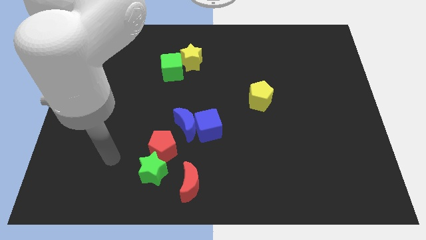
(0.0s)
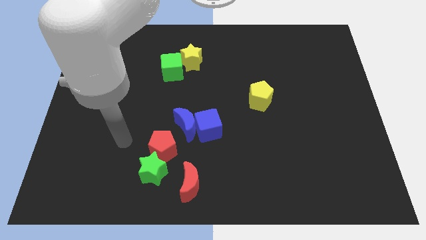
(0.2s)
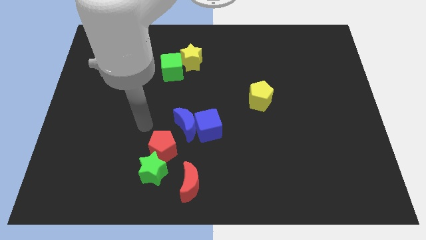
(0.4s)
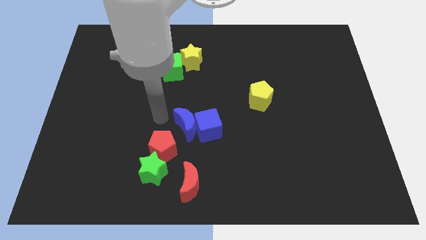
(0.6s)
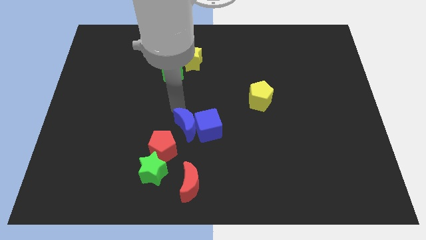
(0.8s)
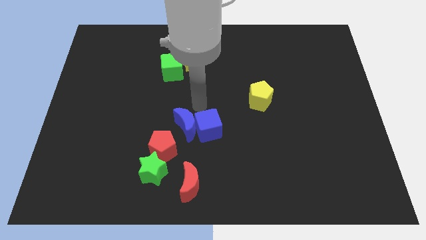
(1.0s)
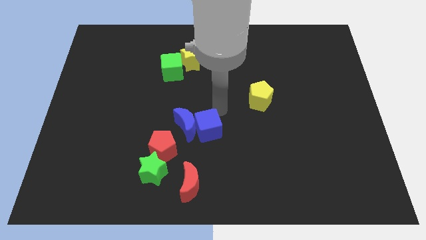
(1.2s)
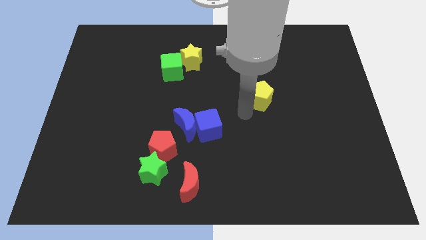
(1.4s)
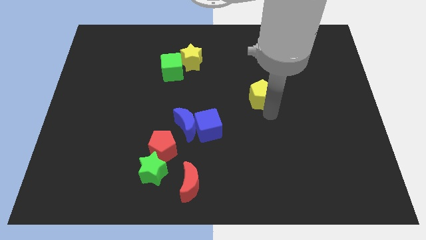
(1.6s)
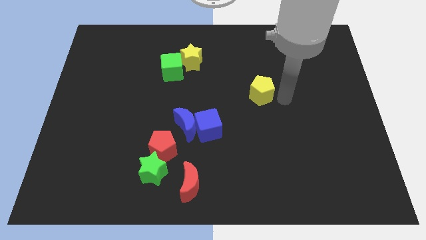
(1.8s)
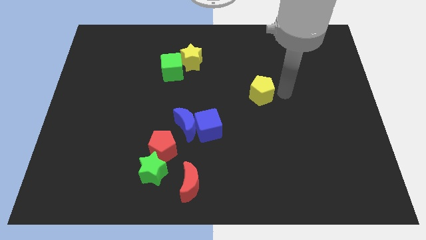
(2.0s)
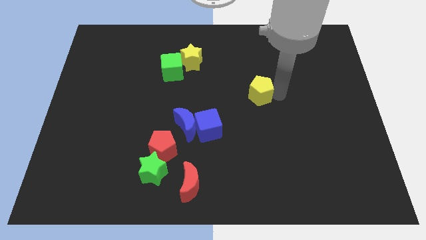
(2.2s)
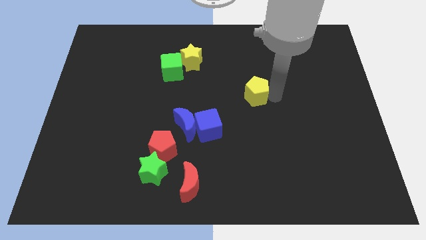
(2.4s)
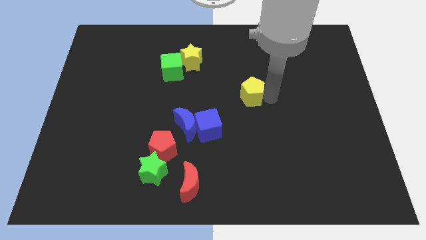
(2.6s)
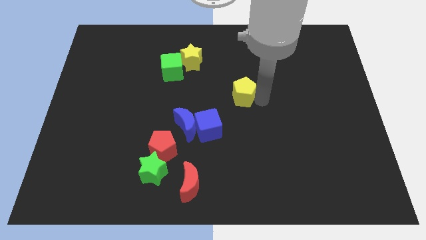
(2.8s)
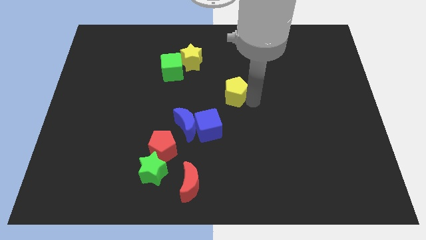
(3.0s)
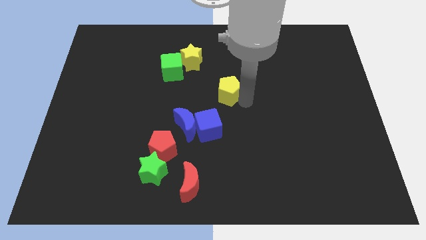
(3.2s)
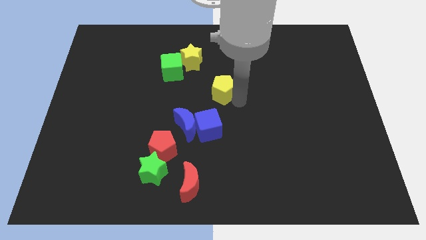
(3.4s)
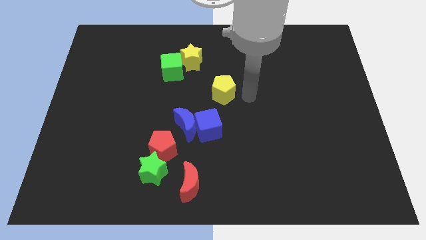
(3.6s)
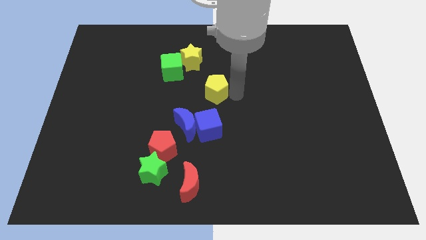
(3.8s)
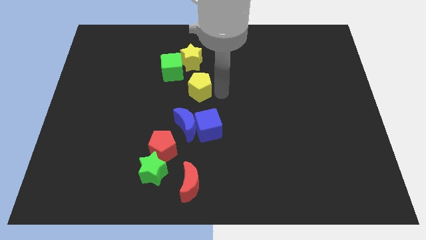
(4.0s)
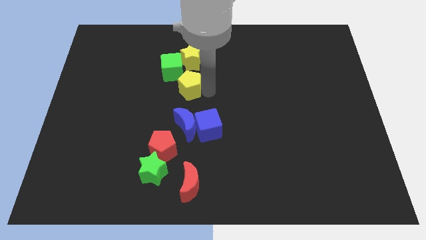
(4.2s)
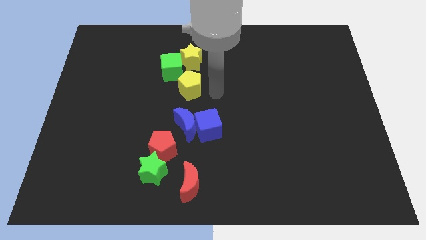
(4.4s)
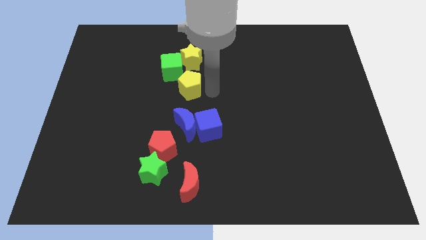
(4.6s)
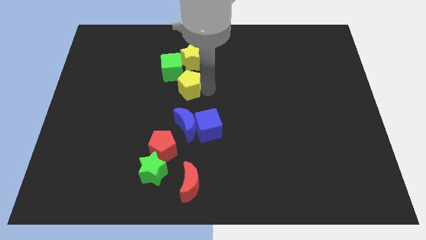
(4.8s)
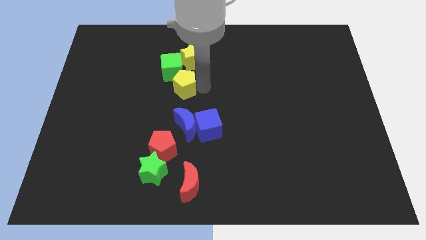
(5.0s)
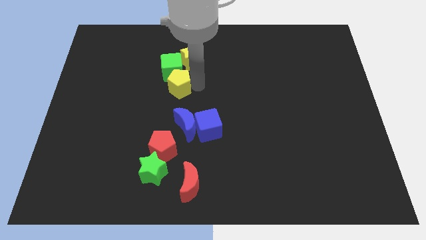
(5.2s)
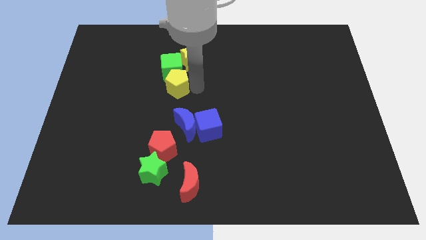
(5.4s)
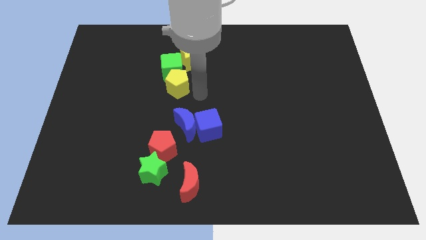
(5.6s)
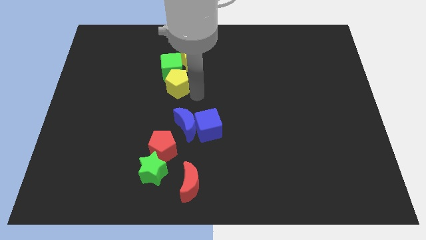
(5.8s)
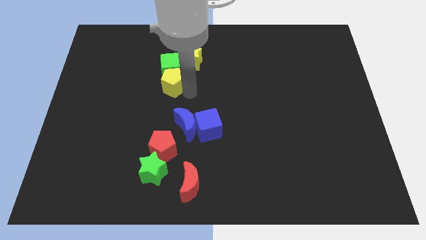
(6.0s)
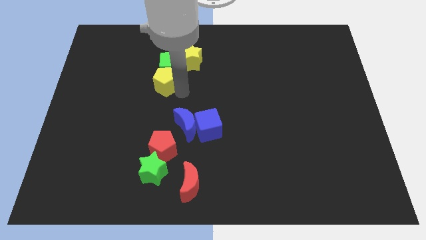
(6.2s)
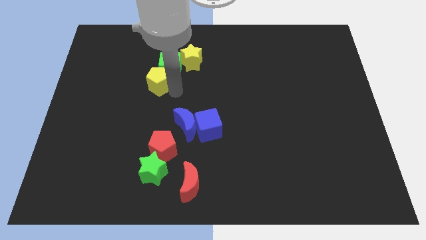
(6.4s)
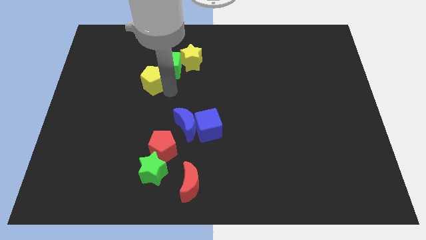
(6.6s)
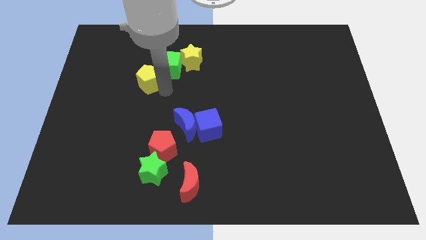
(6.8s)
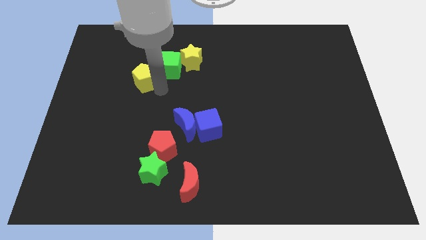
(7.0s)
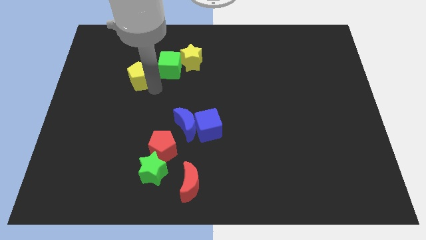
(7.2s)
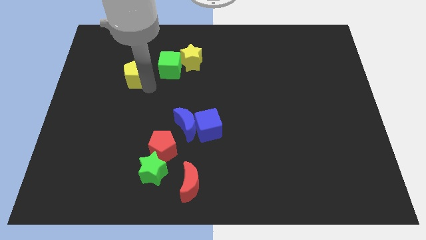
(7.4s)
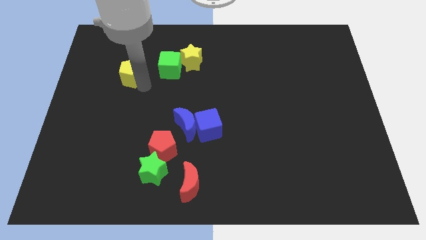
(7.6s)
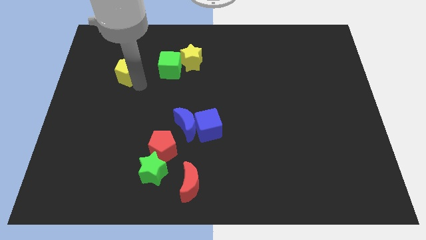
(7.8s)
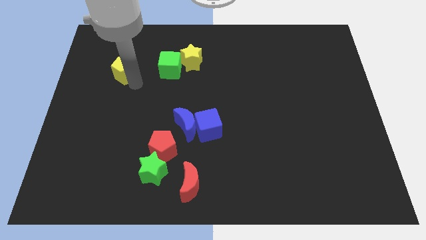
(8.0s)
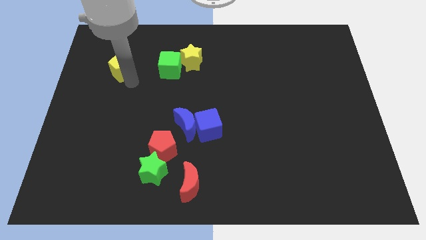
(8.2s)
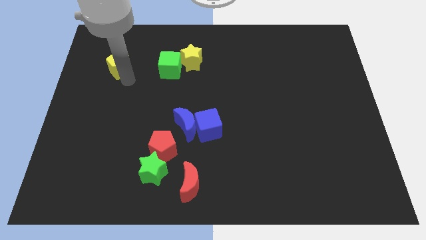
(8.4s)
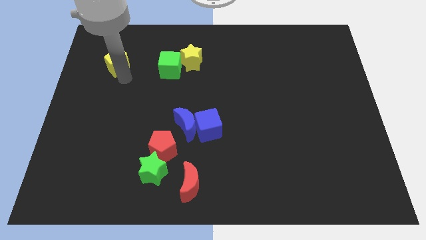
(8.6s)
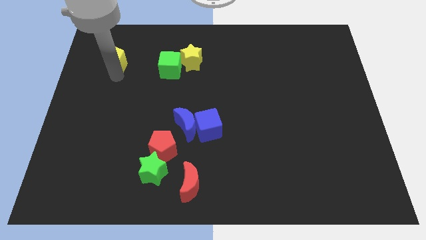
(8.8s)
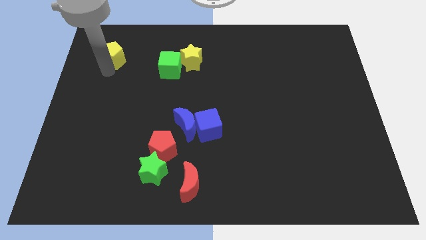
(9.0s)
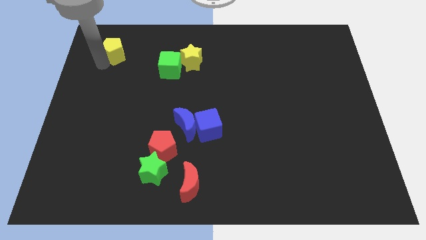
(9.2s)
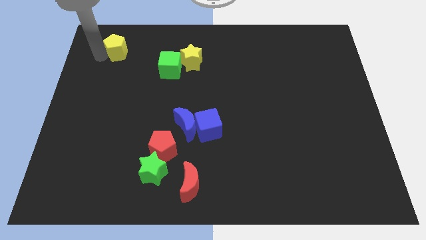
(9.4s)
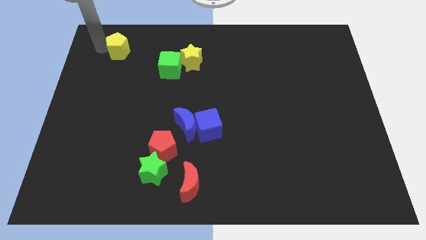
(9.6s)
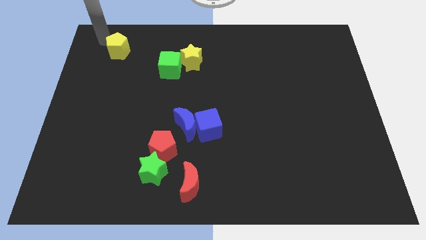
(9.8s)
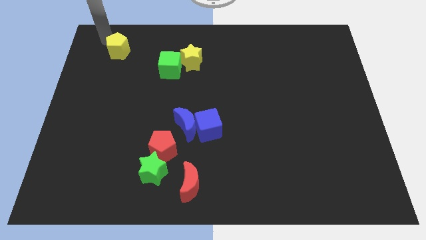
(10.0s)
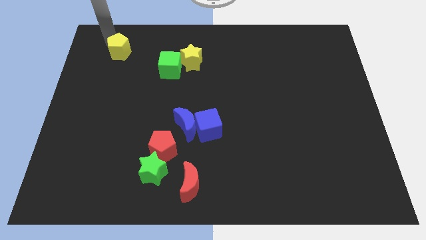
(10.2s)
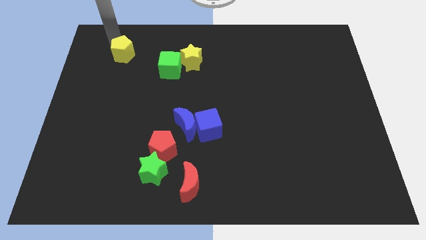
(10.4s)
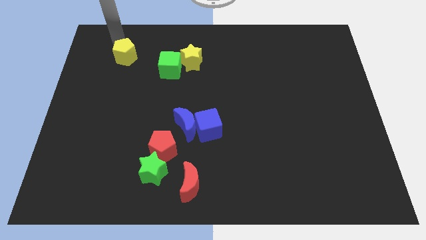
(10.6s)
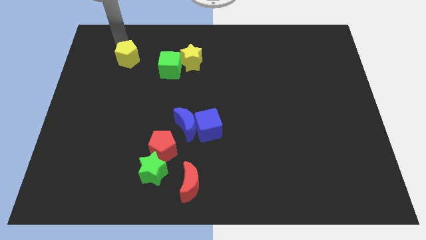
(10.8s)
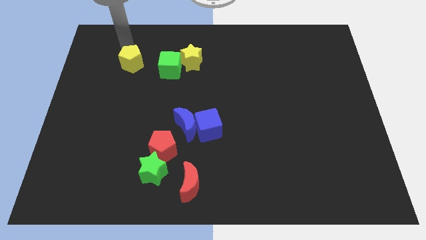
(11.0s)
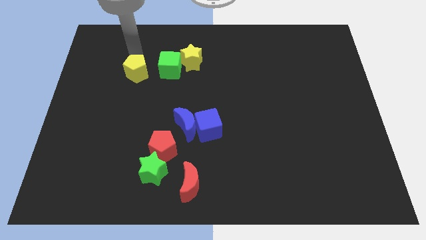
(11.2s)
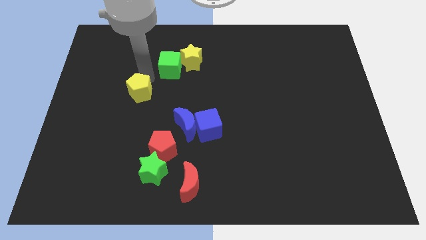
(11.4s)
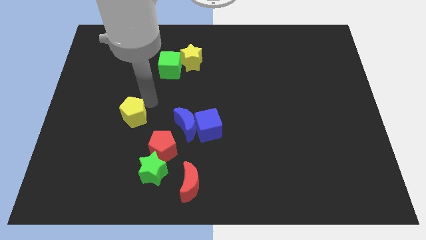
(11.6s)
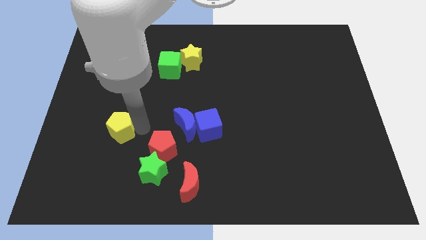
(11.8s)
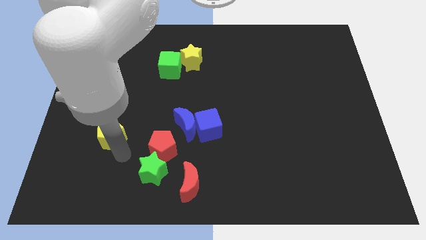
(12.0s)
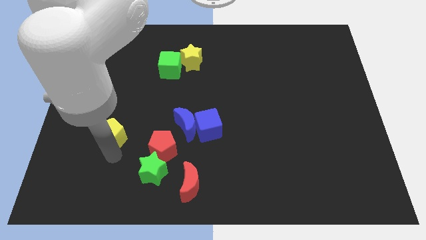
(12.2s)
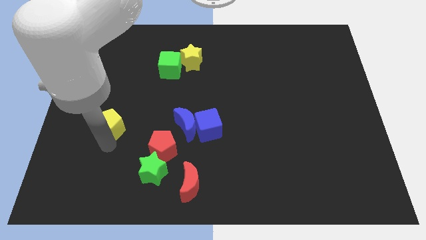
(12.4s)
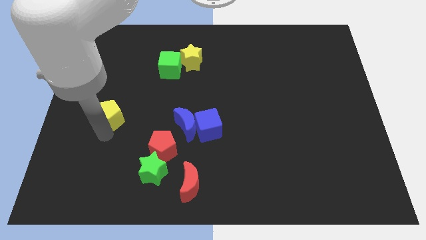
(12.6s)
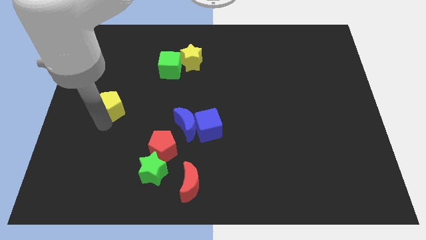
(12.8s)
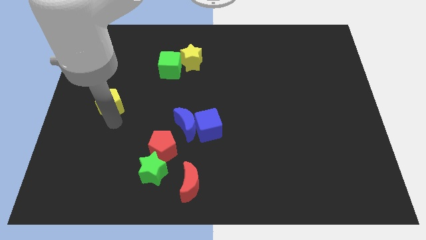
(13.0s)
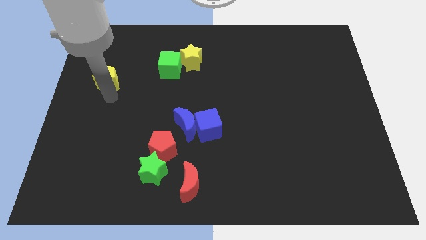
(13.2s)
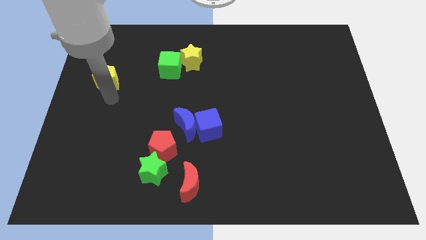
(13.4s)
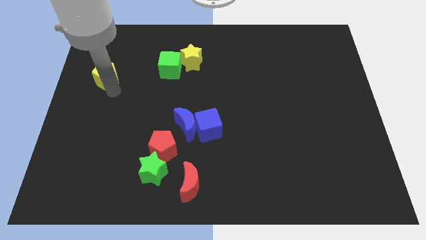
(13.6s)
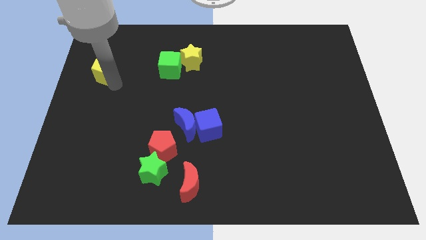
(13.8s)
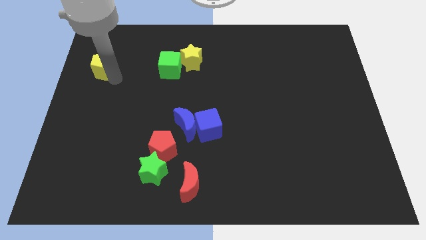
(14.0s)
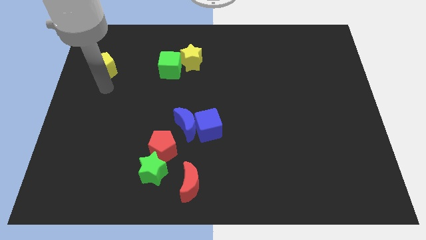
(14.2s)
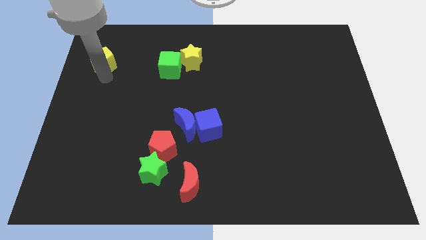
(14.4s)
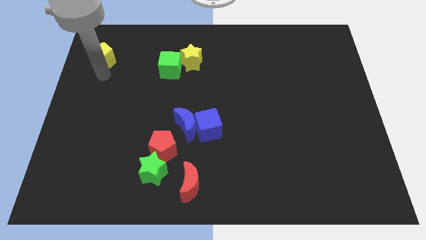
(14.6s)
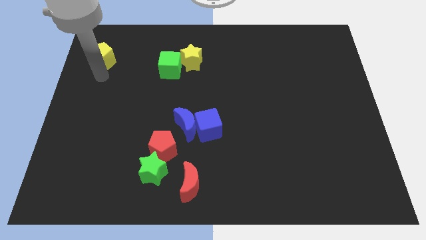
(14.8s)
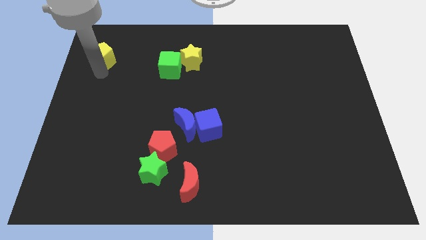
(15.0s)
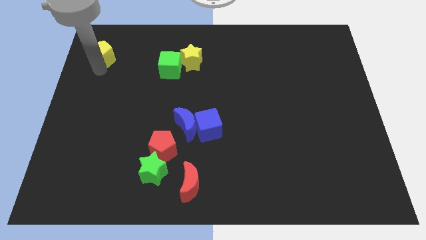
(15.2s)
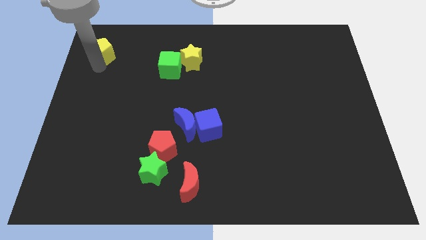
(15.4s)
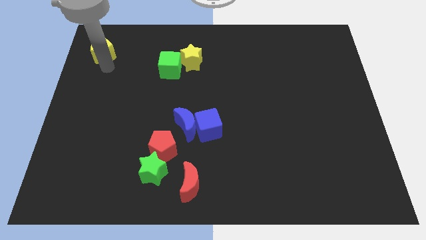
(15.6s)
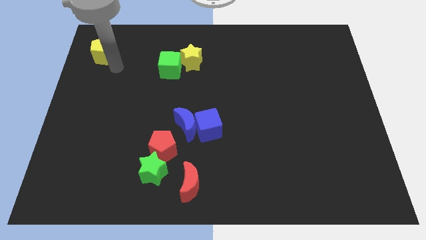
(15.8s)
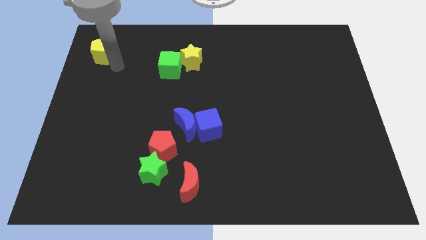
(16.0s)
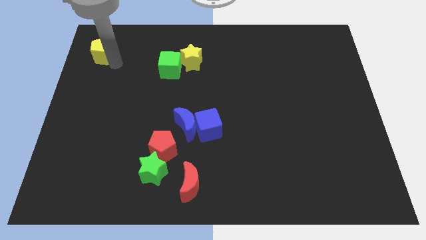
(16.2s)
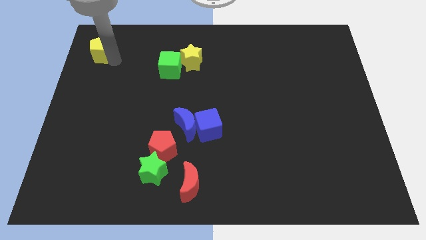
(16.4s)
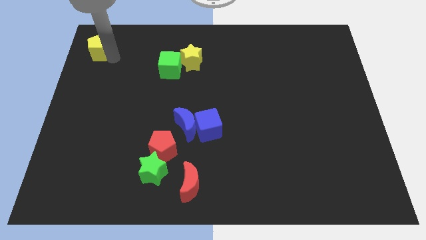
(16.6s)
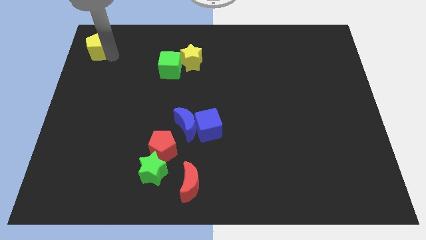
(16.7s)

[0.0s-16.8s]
put the yellow pentagon to the top left corner
